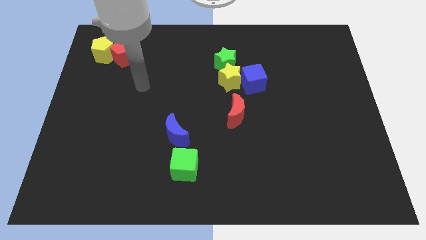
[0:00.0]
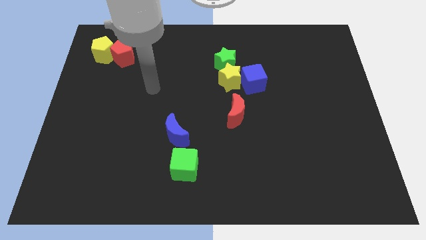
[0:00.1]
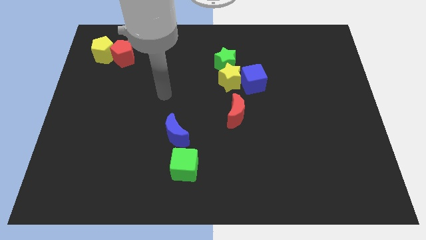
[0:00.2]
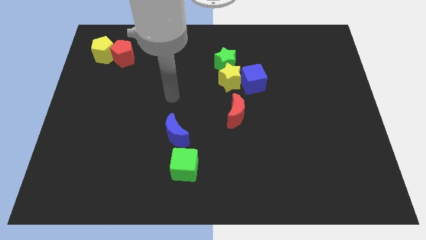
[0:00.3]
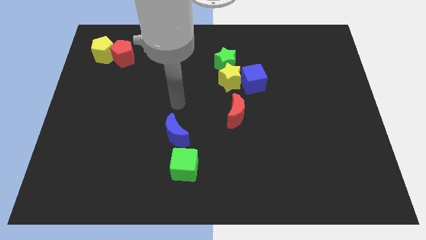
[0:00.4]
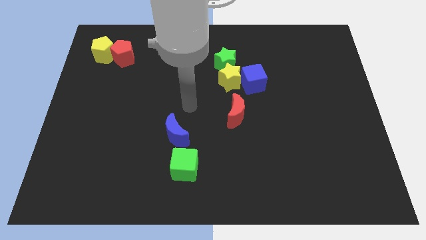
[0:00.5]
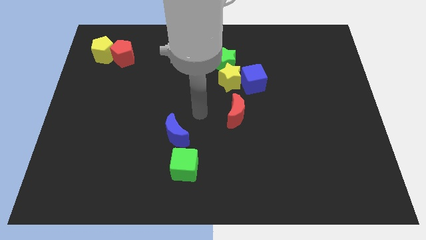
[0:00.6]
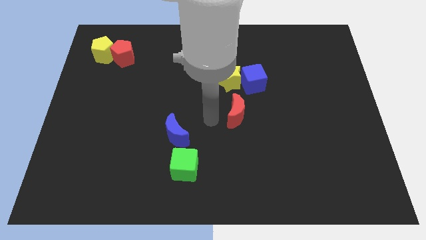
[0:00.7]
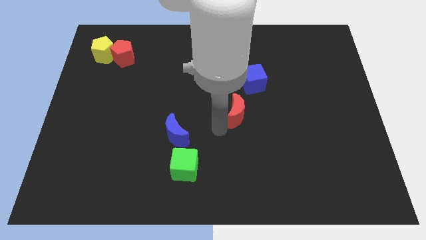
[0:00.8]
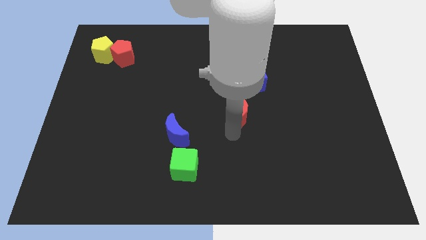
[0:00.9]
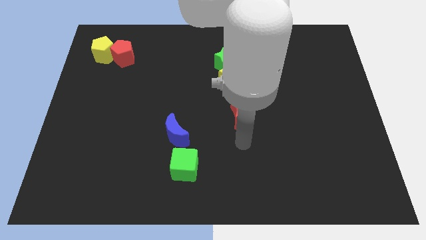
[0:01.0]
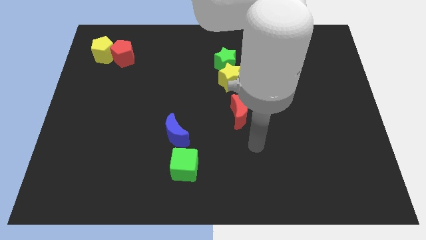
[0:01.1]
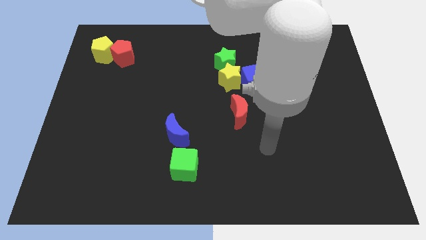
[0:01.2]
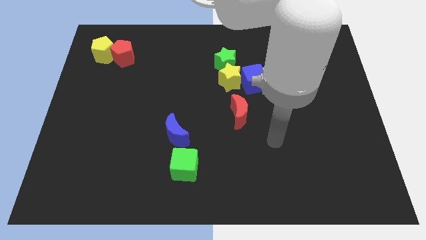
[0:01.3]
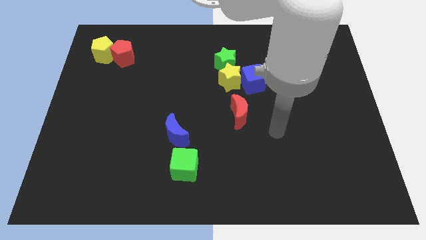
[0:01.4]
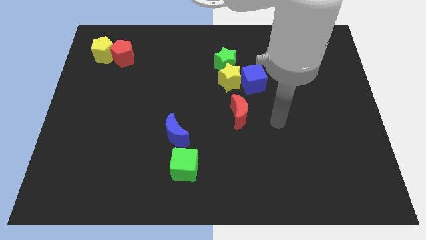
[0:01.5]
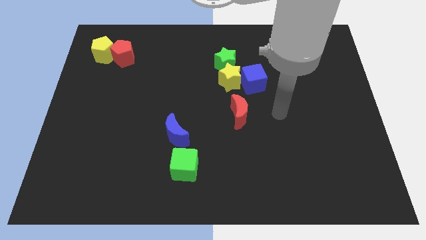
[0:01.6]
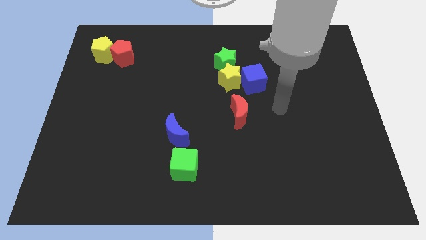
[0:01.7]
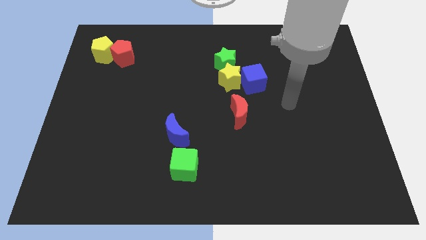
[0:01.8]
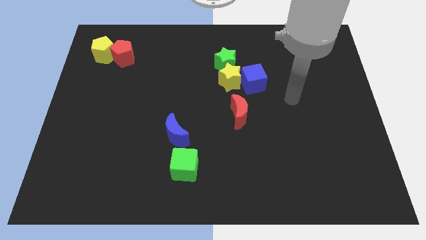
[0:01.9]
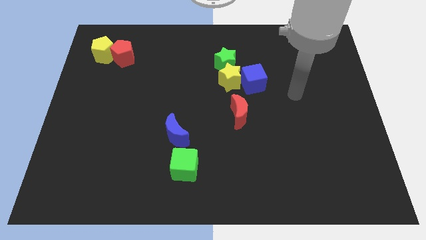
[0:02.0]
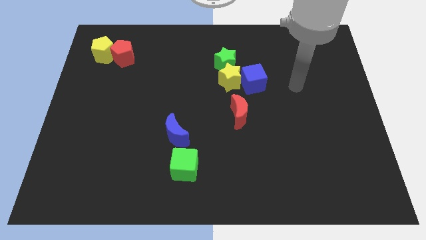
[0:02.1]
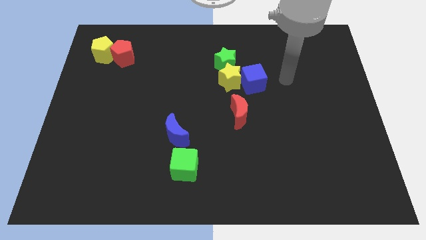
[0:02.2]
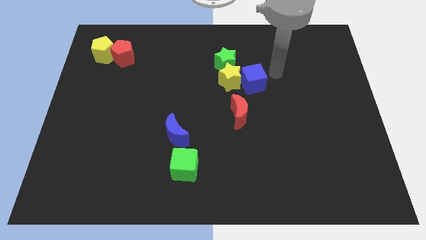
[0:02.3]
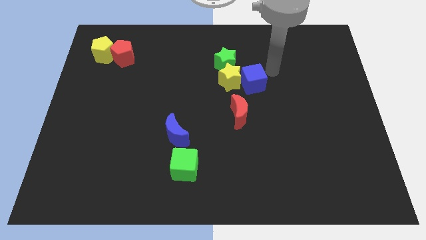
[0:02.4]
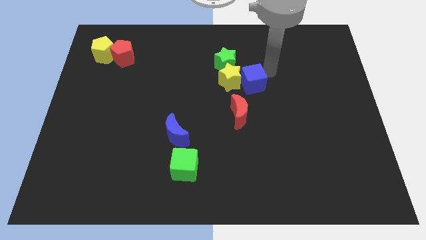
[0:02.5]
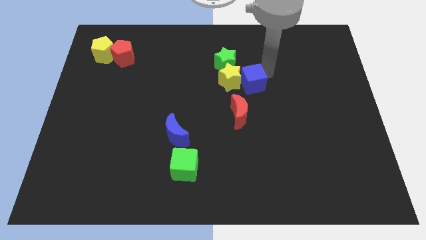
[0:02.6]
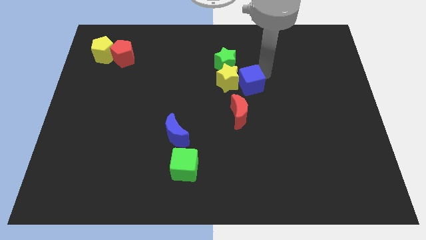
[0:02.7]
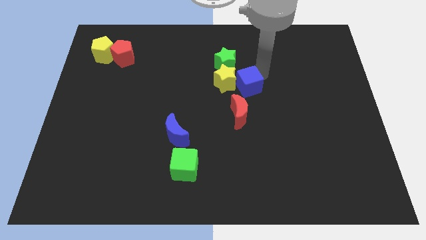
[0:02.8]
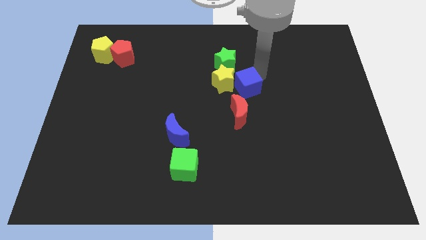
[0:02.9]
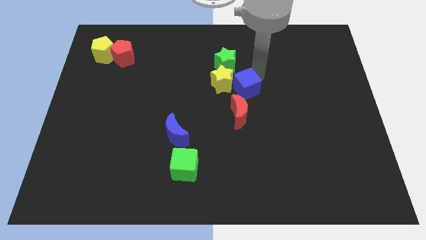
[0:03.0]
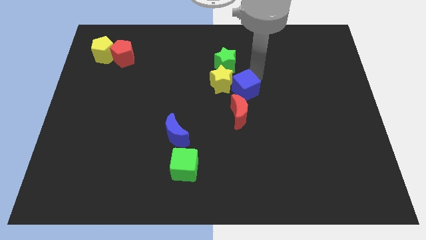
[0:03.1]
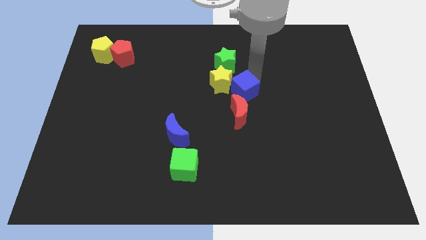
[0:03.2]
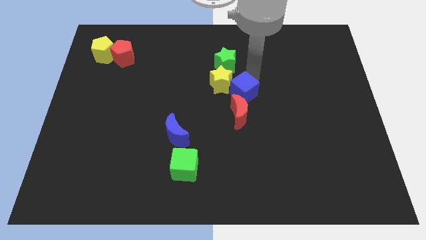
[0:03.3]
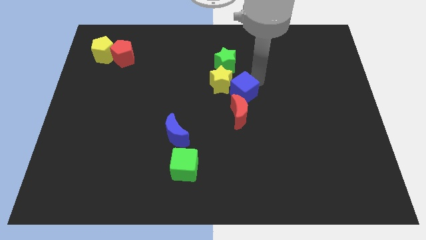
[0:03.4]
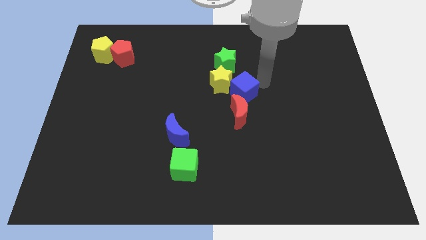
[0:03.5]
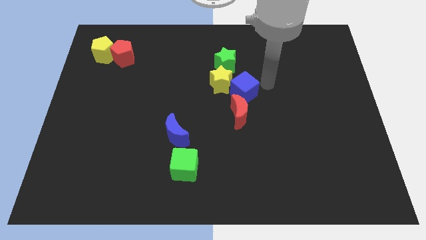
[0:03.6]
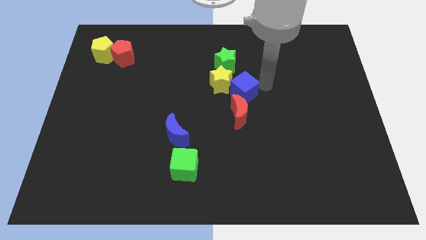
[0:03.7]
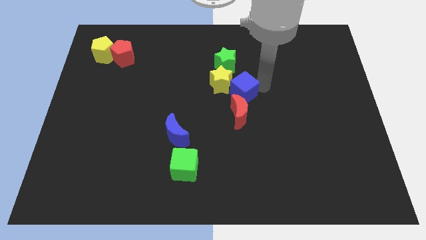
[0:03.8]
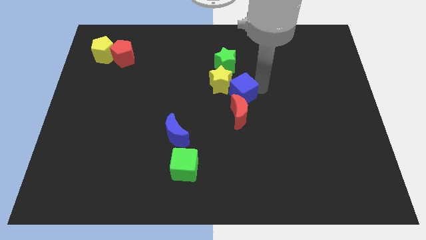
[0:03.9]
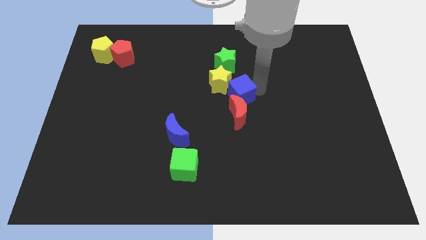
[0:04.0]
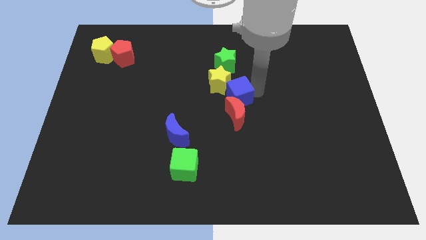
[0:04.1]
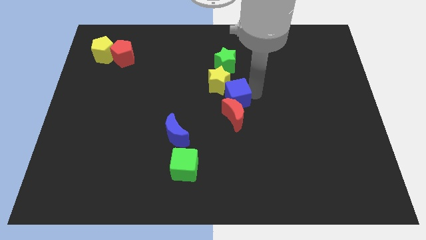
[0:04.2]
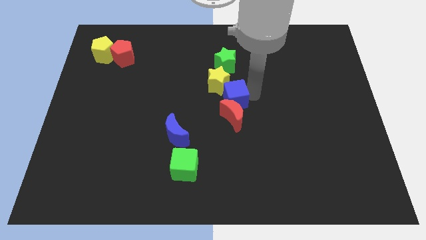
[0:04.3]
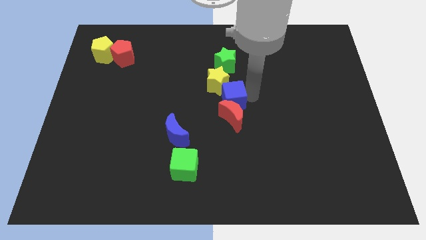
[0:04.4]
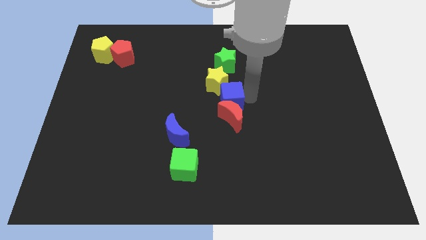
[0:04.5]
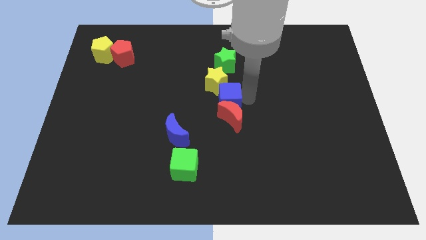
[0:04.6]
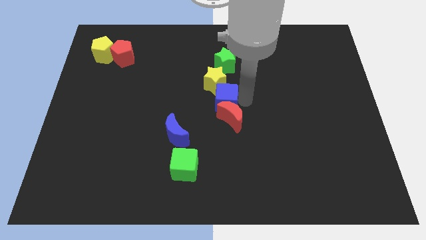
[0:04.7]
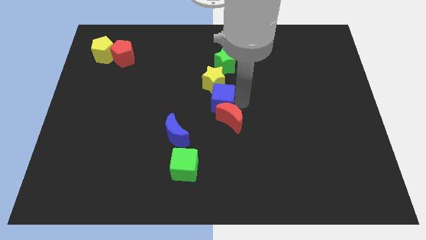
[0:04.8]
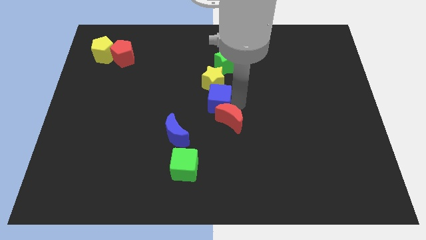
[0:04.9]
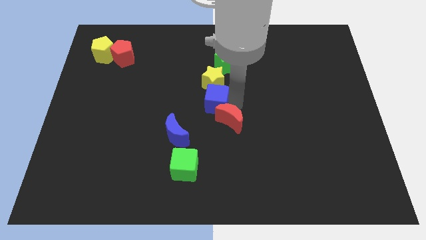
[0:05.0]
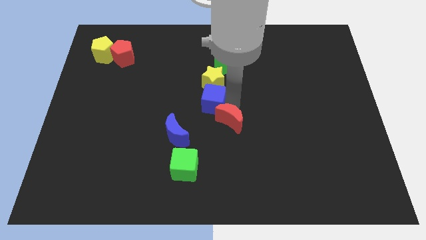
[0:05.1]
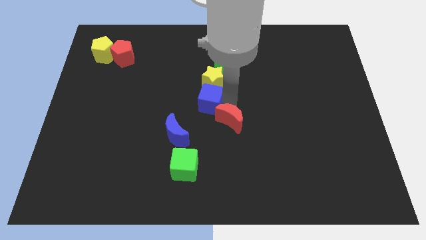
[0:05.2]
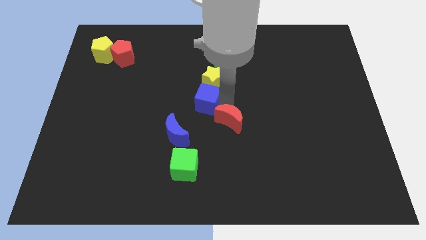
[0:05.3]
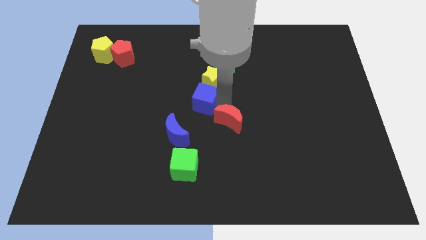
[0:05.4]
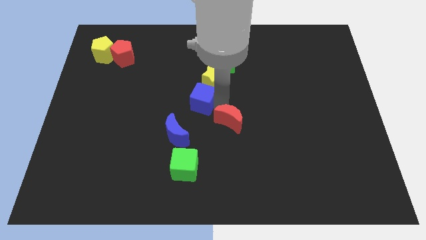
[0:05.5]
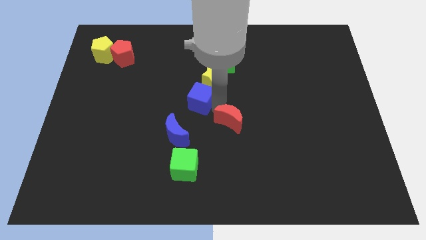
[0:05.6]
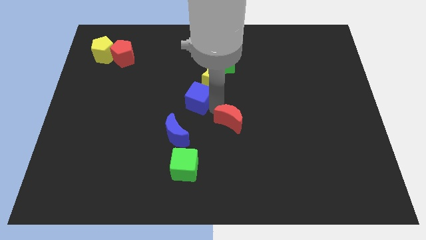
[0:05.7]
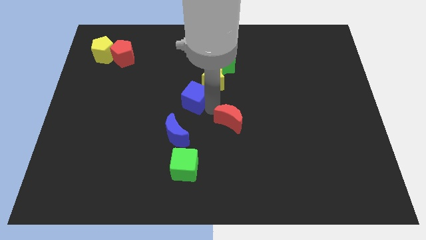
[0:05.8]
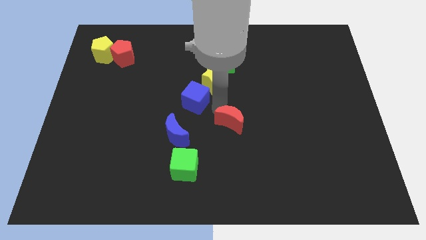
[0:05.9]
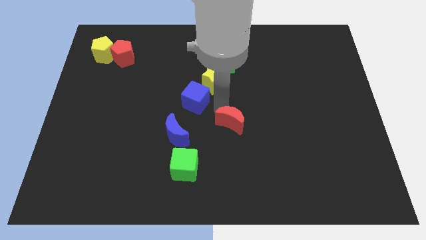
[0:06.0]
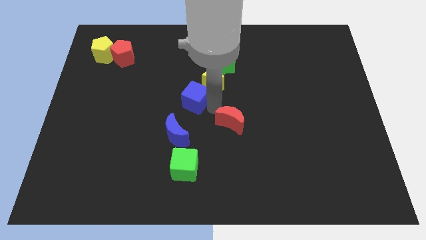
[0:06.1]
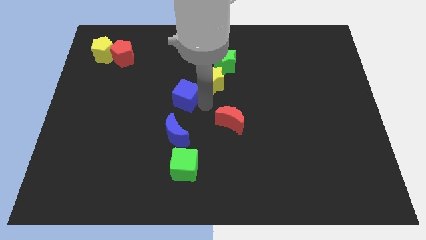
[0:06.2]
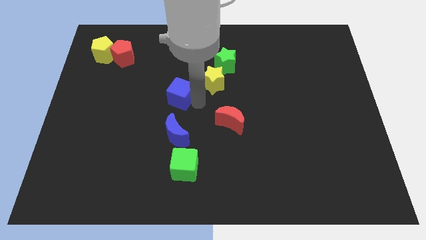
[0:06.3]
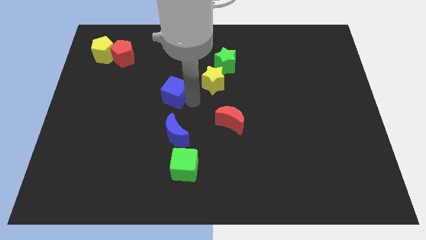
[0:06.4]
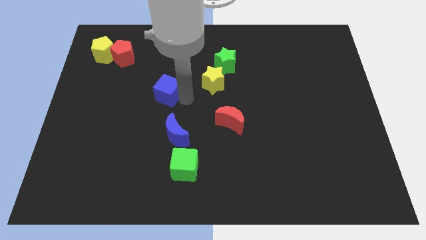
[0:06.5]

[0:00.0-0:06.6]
move the blue cube left

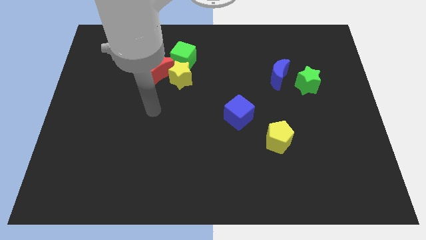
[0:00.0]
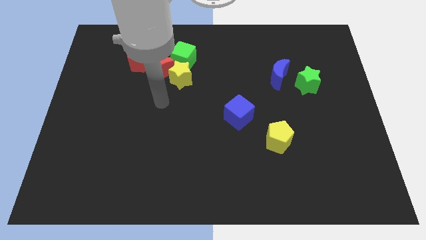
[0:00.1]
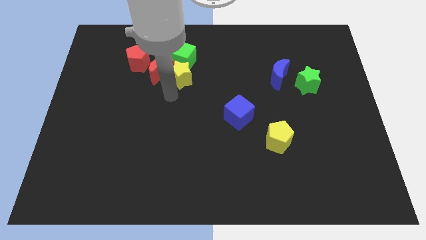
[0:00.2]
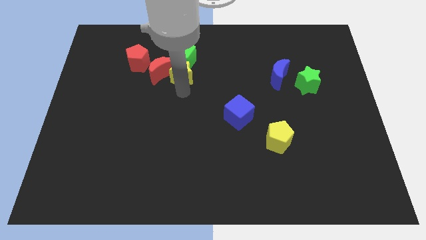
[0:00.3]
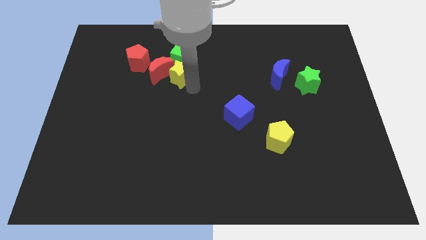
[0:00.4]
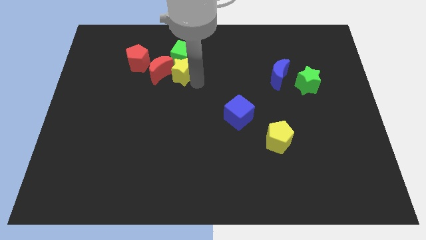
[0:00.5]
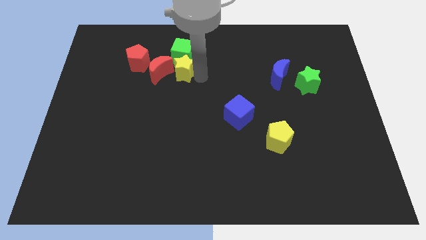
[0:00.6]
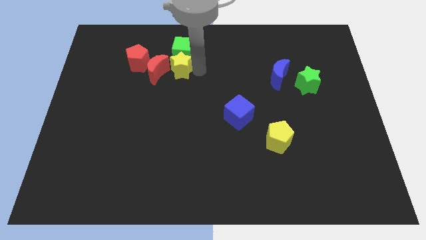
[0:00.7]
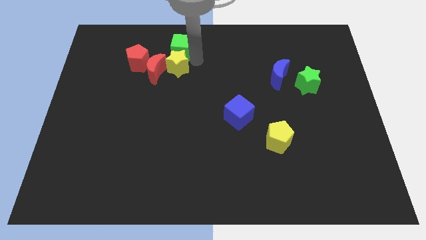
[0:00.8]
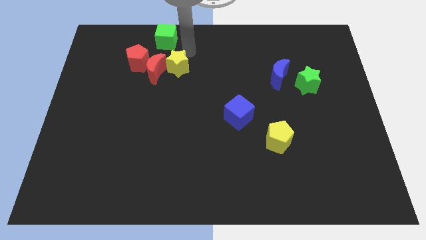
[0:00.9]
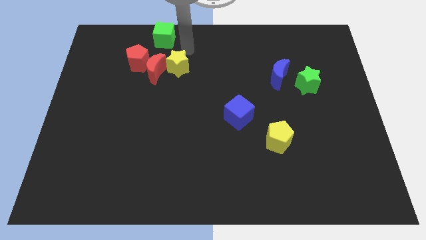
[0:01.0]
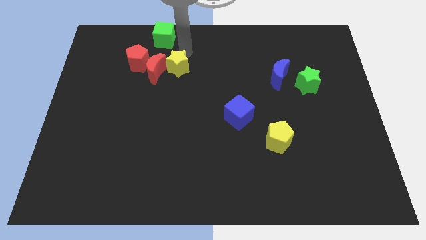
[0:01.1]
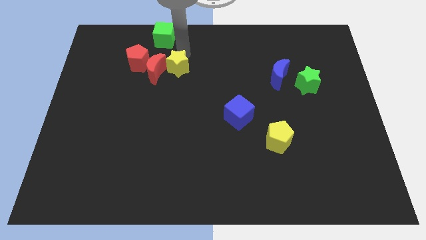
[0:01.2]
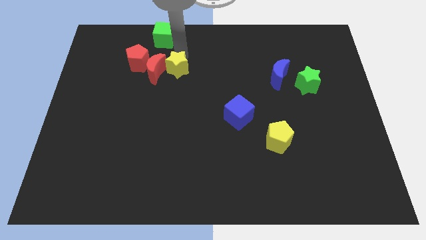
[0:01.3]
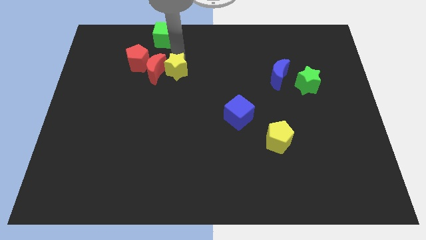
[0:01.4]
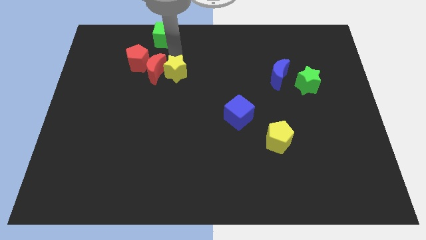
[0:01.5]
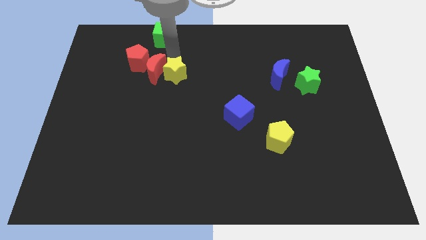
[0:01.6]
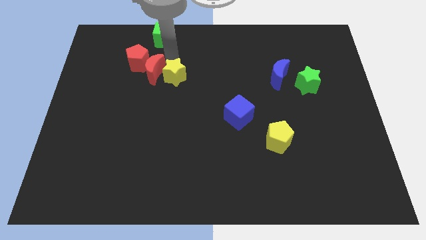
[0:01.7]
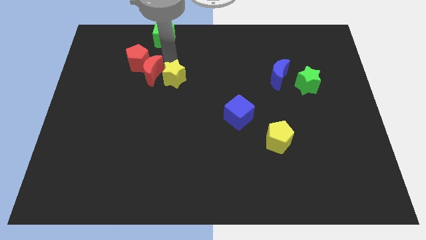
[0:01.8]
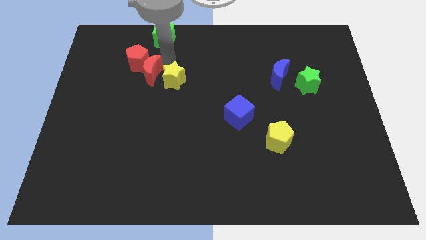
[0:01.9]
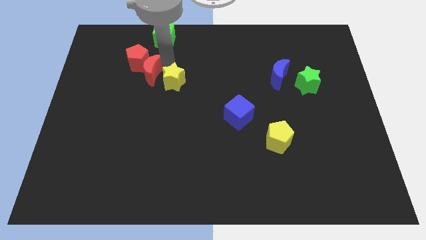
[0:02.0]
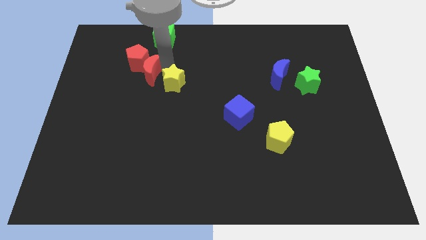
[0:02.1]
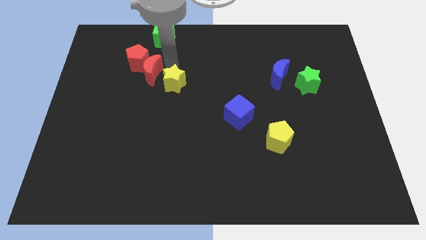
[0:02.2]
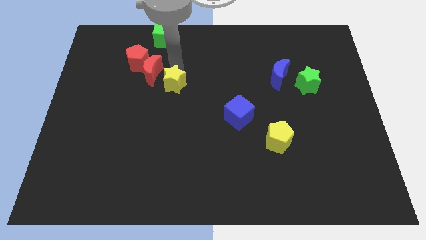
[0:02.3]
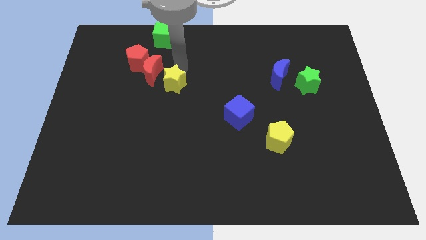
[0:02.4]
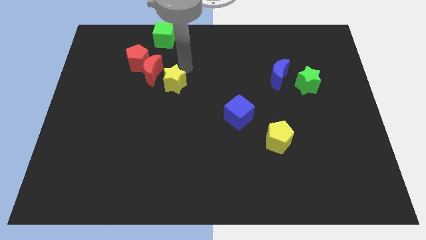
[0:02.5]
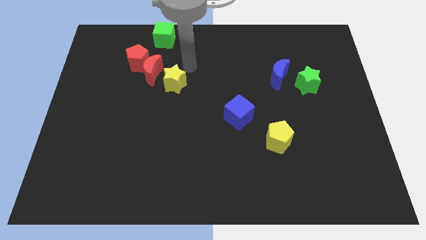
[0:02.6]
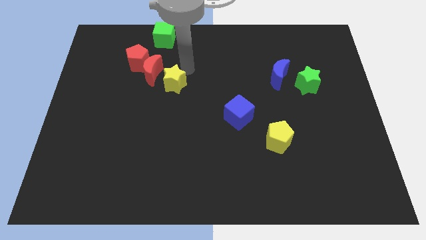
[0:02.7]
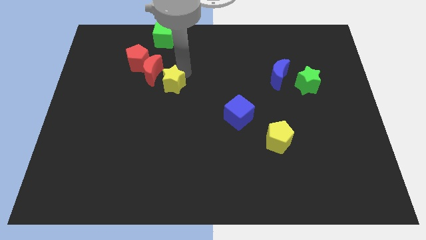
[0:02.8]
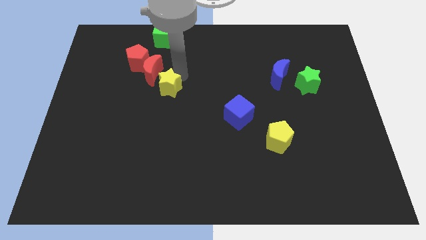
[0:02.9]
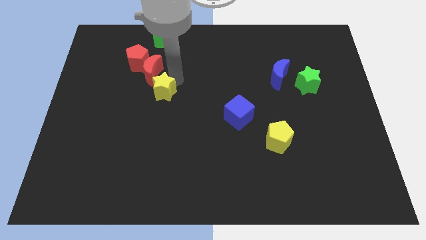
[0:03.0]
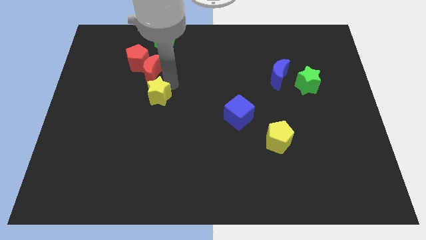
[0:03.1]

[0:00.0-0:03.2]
slide the yellow star somewhat diagonally down and to the left
